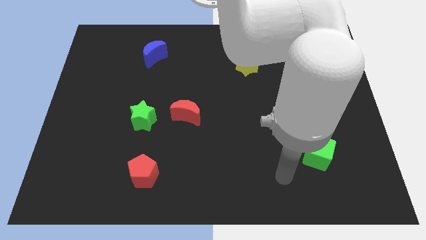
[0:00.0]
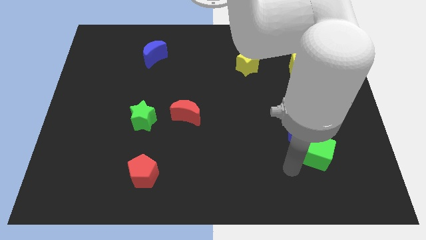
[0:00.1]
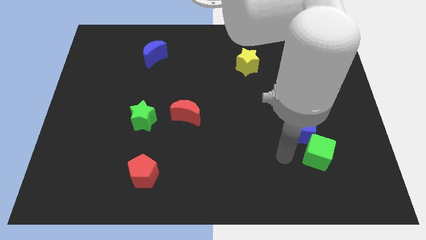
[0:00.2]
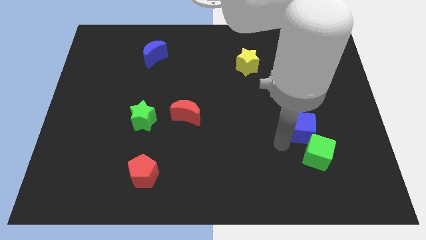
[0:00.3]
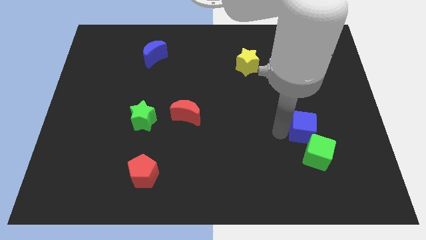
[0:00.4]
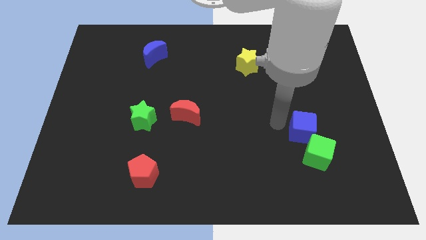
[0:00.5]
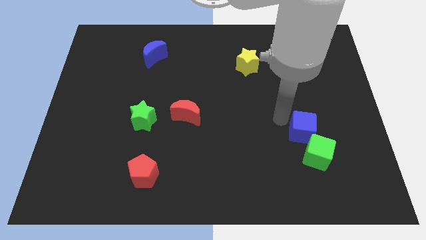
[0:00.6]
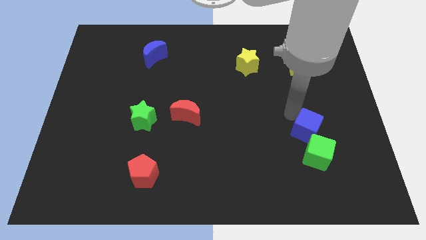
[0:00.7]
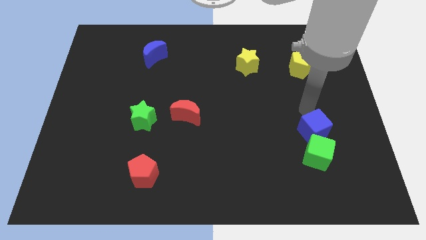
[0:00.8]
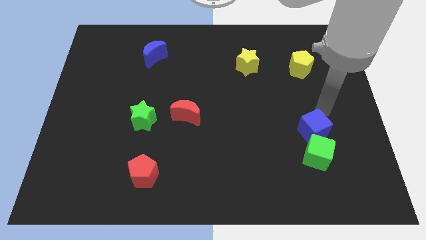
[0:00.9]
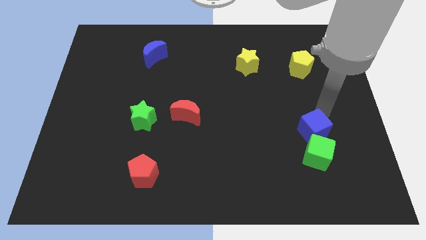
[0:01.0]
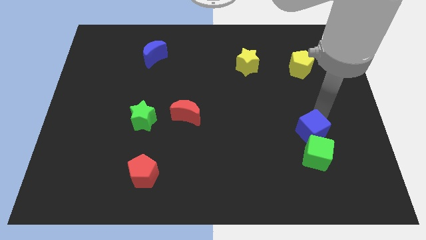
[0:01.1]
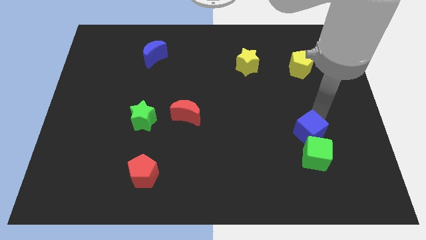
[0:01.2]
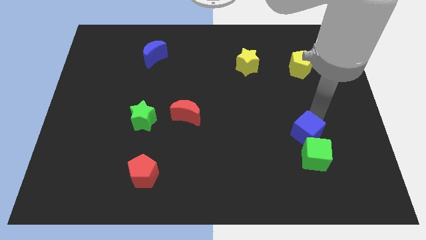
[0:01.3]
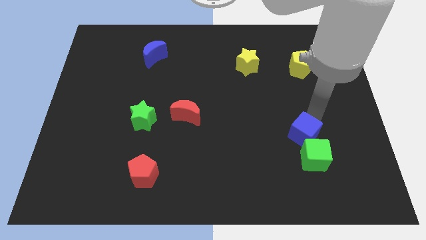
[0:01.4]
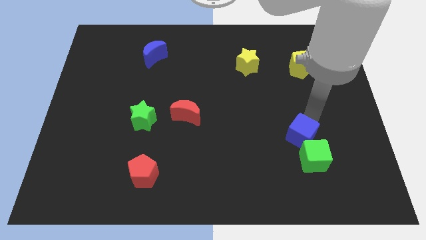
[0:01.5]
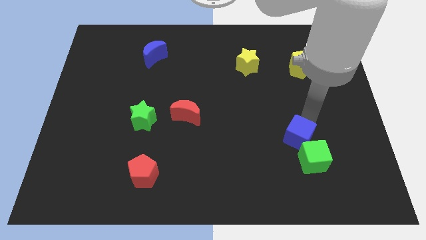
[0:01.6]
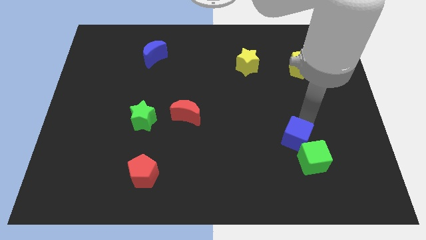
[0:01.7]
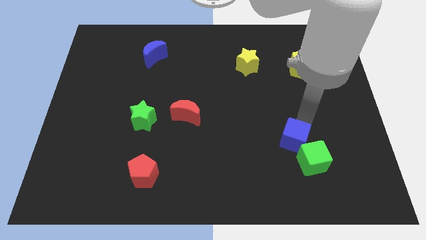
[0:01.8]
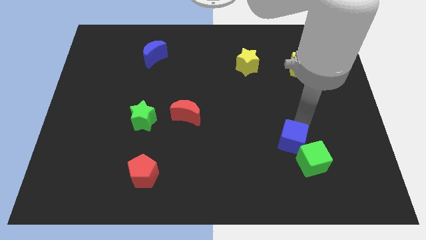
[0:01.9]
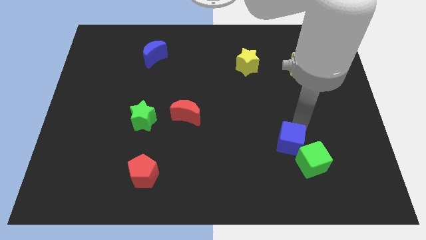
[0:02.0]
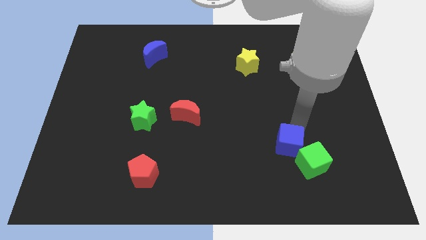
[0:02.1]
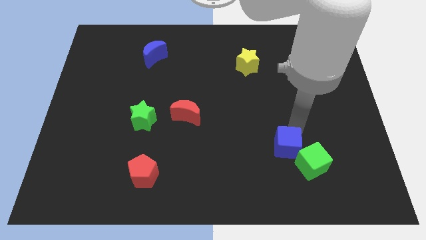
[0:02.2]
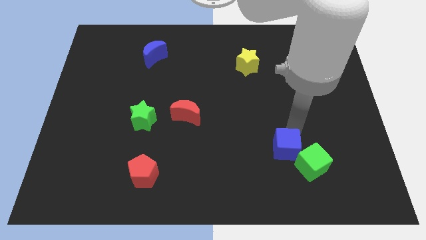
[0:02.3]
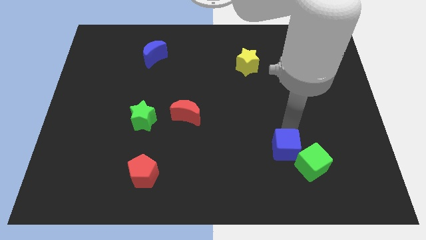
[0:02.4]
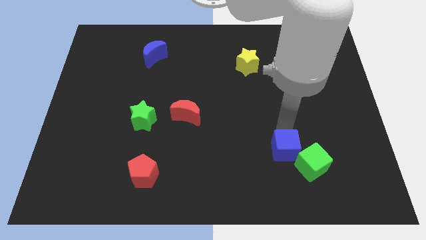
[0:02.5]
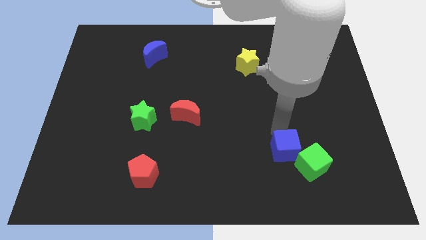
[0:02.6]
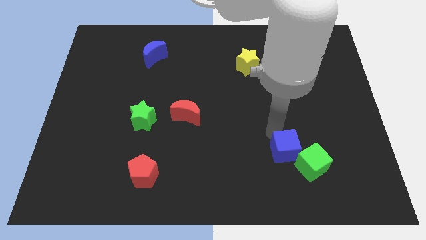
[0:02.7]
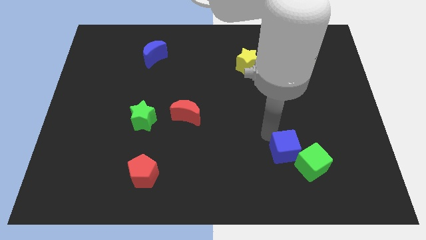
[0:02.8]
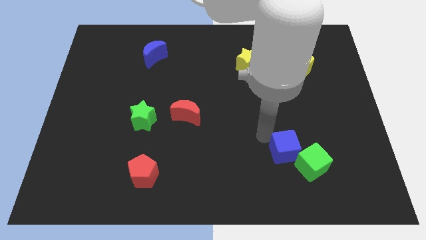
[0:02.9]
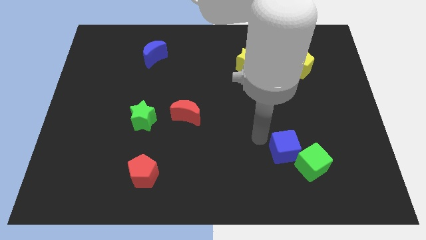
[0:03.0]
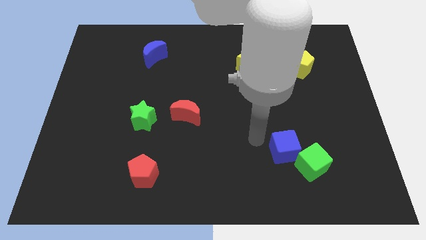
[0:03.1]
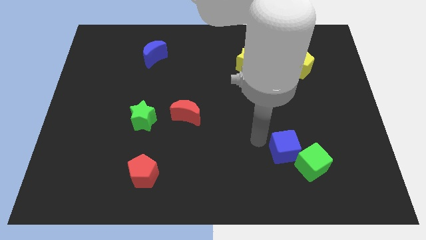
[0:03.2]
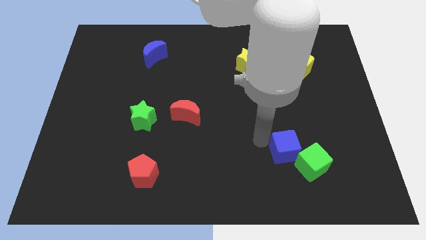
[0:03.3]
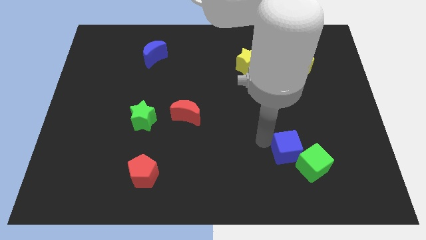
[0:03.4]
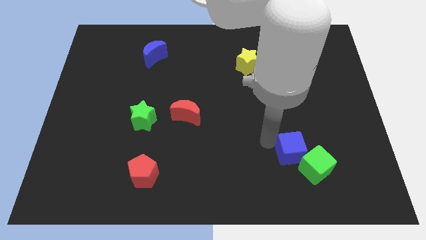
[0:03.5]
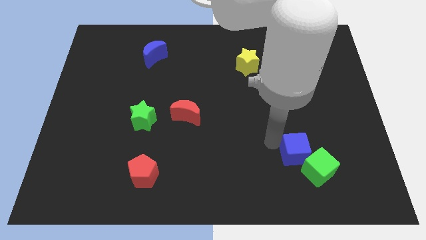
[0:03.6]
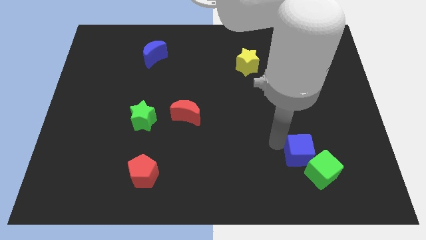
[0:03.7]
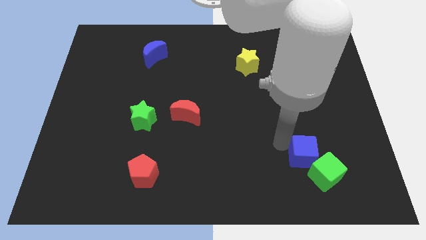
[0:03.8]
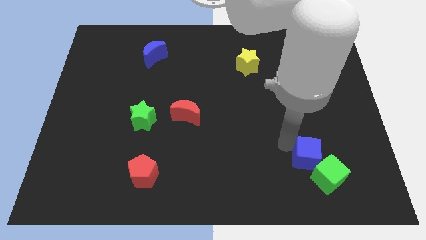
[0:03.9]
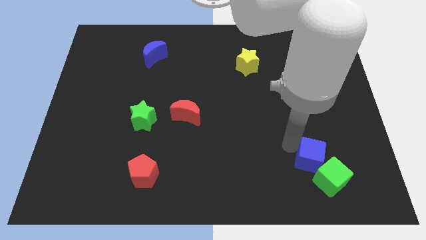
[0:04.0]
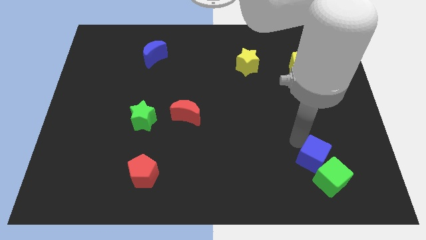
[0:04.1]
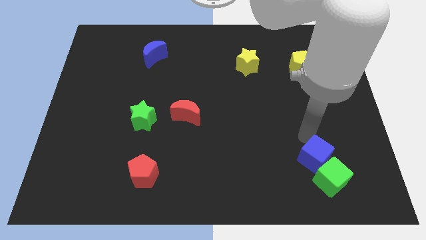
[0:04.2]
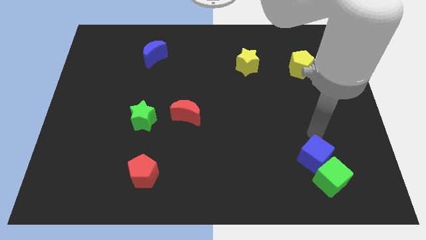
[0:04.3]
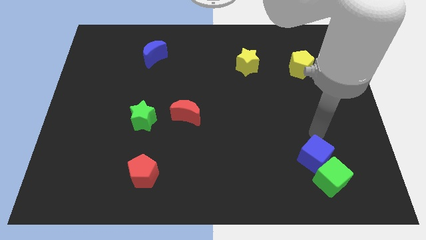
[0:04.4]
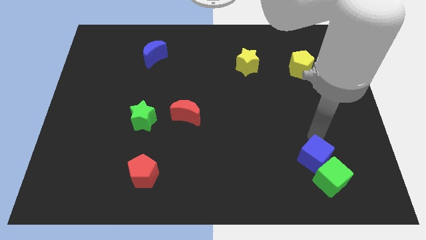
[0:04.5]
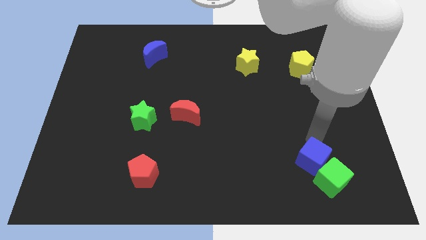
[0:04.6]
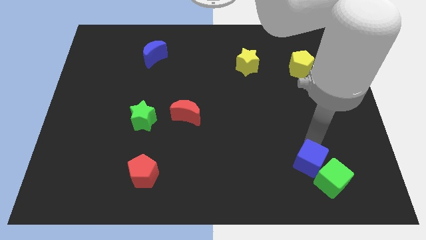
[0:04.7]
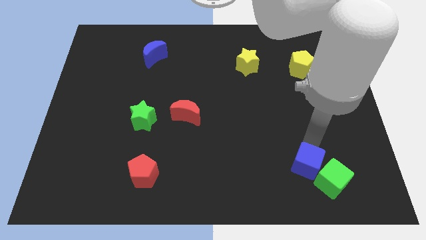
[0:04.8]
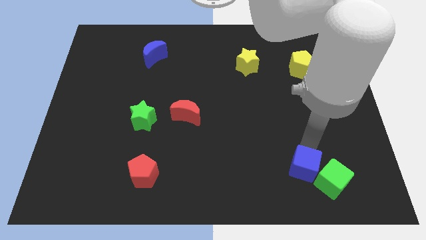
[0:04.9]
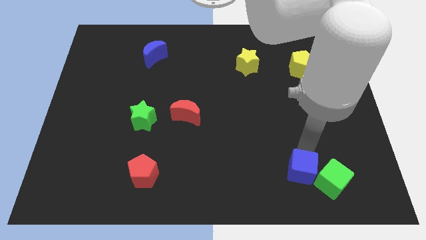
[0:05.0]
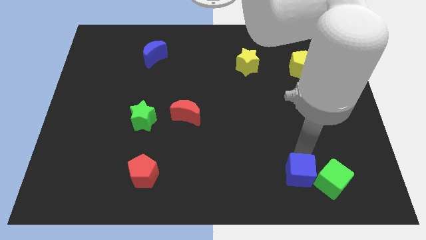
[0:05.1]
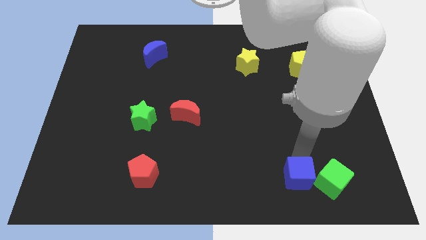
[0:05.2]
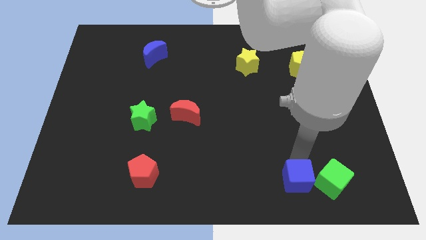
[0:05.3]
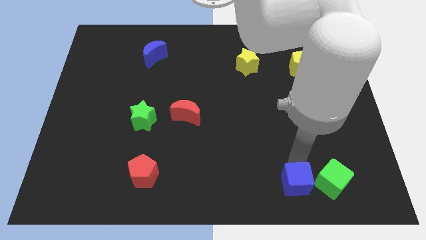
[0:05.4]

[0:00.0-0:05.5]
move the blue cube to the bottom left of the green cube

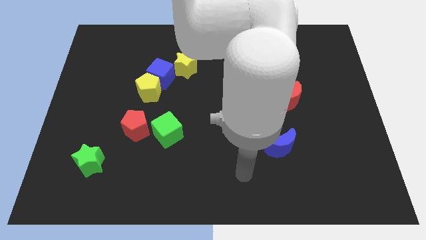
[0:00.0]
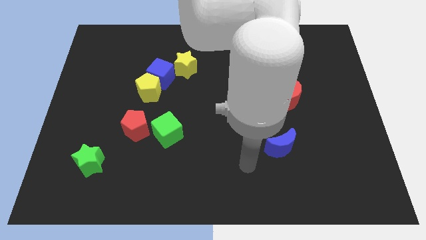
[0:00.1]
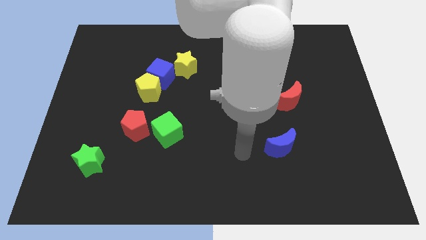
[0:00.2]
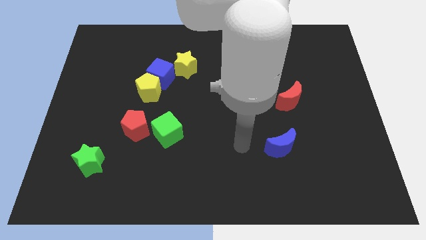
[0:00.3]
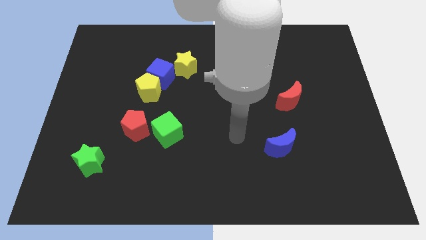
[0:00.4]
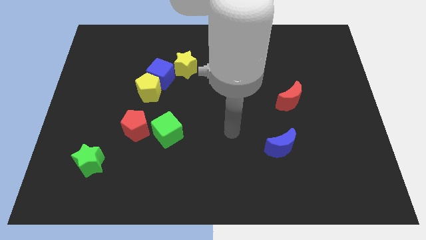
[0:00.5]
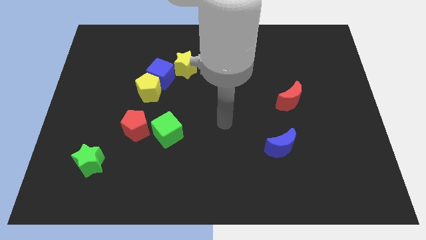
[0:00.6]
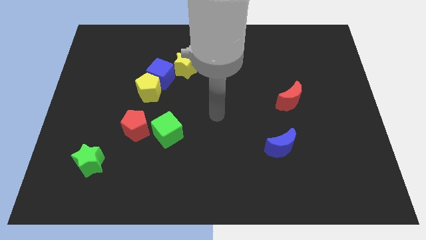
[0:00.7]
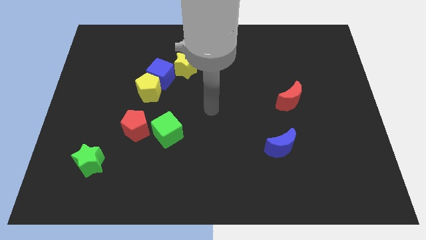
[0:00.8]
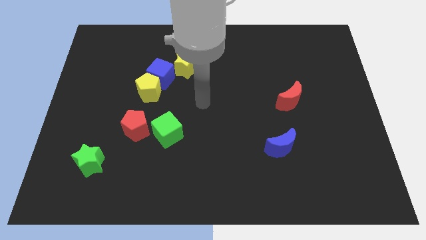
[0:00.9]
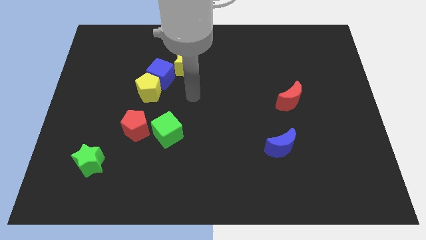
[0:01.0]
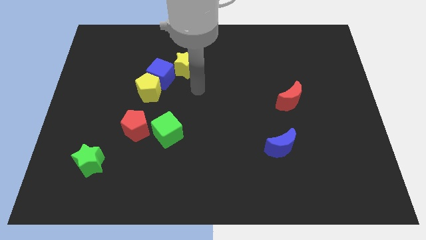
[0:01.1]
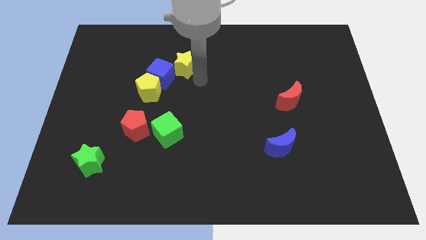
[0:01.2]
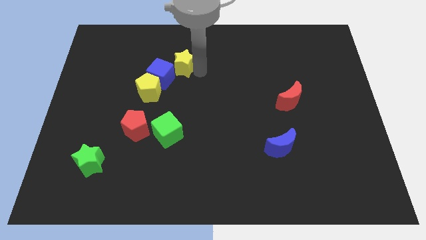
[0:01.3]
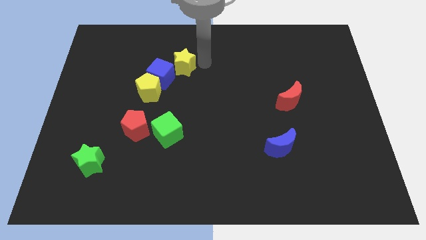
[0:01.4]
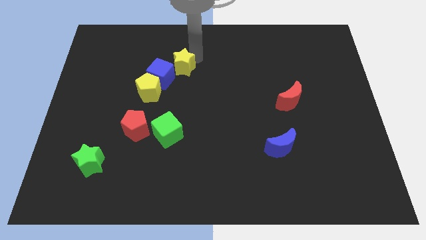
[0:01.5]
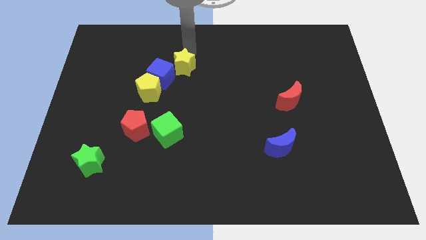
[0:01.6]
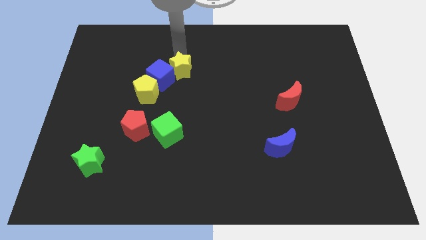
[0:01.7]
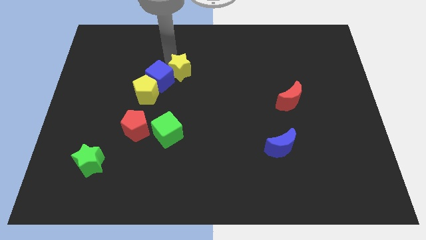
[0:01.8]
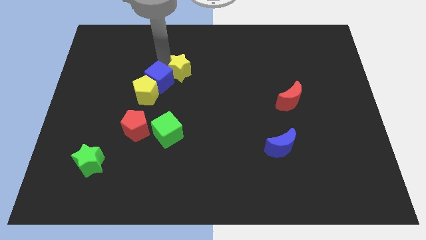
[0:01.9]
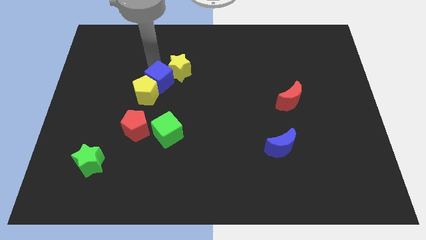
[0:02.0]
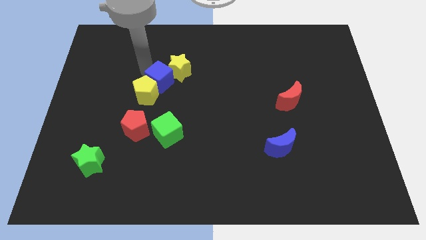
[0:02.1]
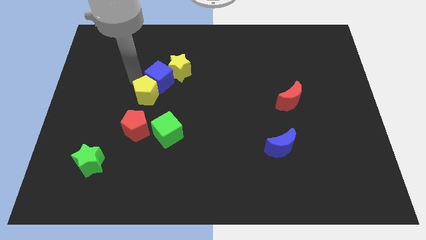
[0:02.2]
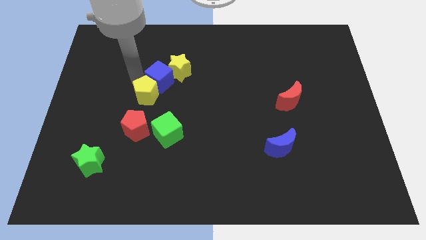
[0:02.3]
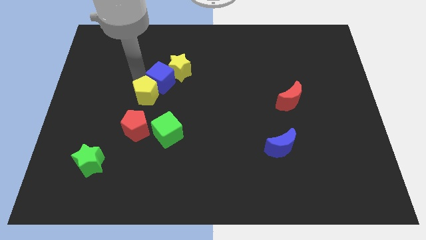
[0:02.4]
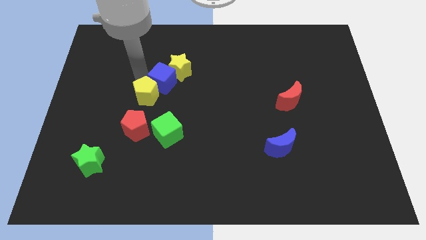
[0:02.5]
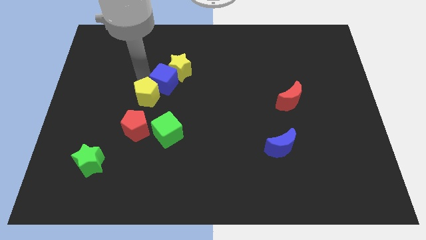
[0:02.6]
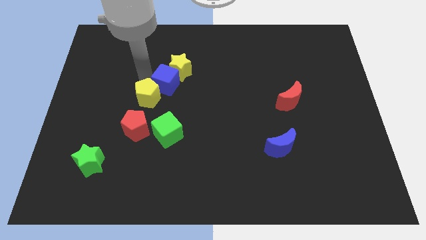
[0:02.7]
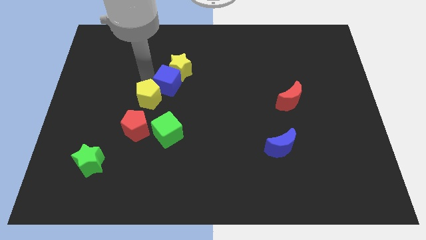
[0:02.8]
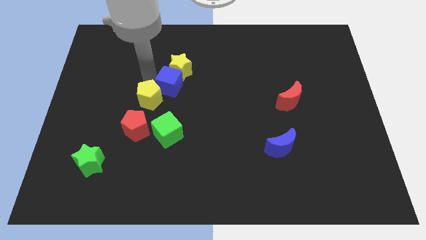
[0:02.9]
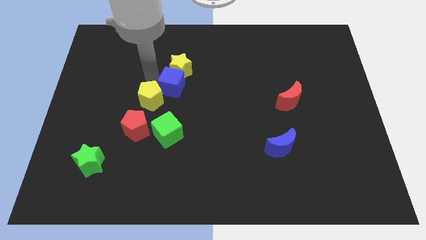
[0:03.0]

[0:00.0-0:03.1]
push the blue cube diagonally down and to the right of the yellow star
